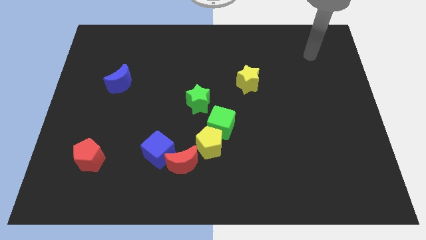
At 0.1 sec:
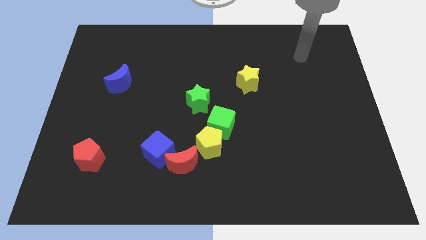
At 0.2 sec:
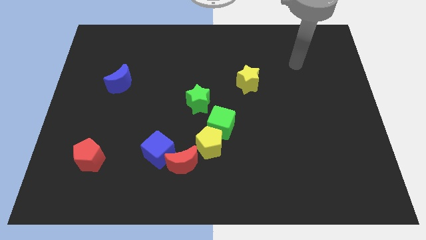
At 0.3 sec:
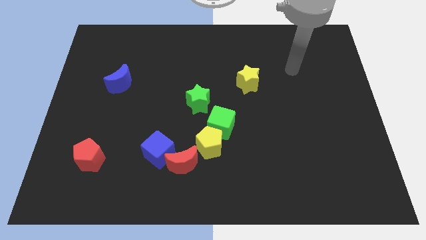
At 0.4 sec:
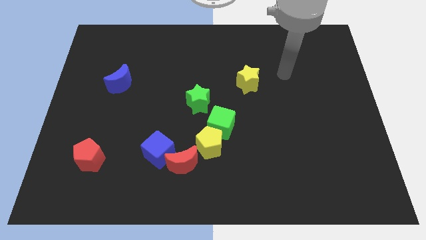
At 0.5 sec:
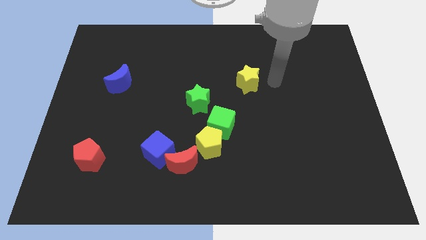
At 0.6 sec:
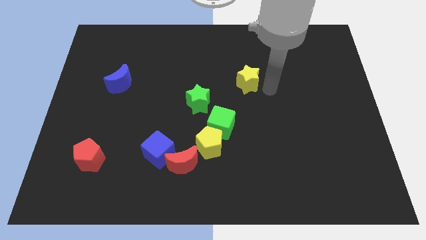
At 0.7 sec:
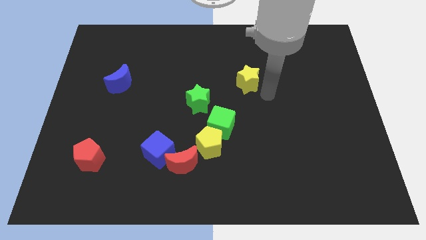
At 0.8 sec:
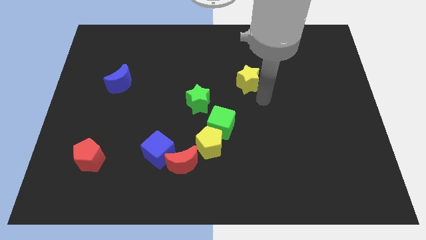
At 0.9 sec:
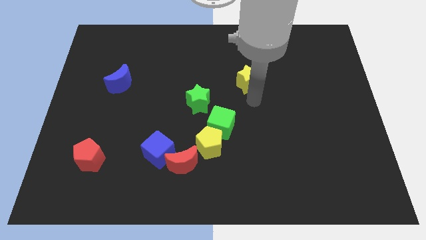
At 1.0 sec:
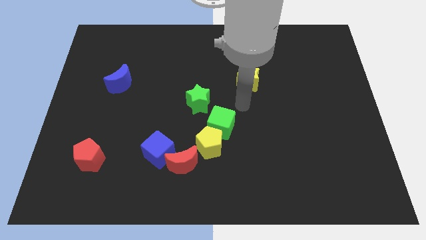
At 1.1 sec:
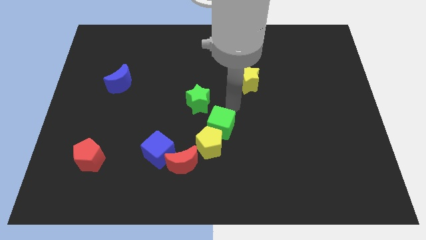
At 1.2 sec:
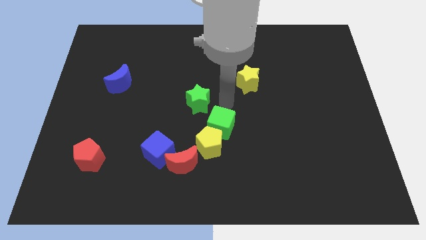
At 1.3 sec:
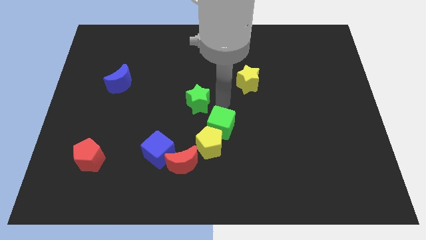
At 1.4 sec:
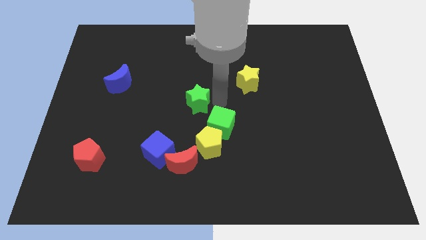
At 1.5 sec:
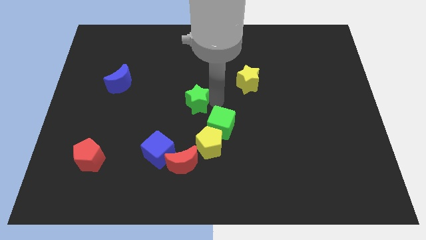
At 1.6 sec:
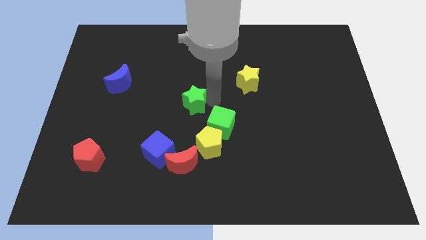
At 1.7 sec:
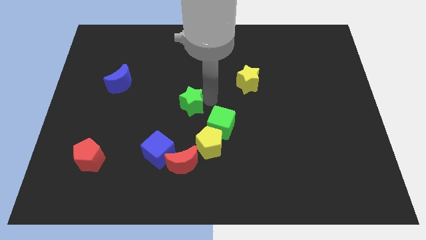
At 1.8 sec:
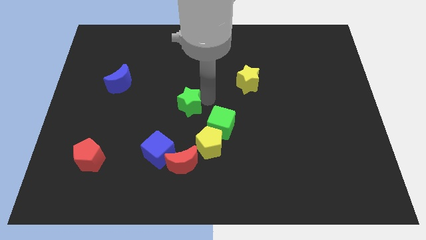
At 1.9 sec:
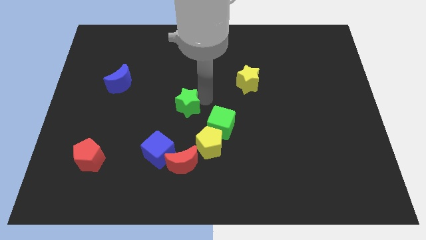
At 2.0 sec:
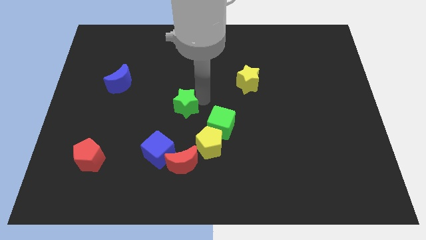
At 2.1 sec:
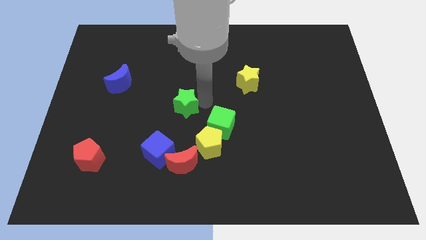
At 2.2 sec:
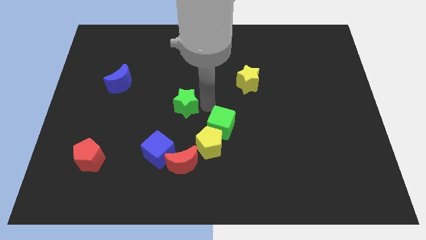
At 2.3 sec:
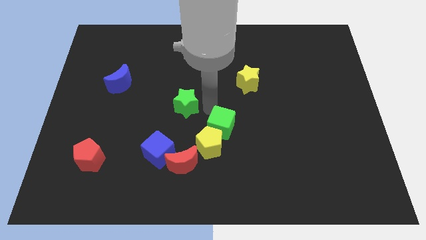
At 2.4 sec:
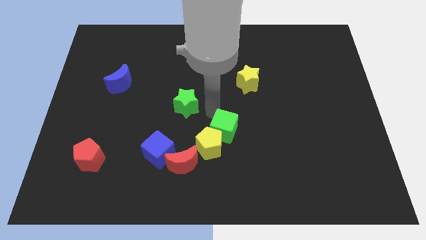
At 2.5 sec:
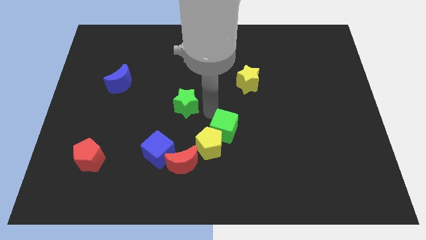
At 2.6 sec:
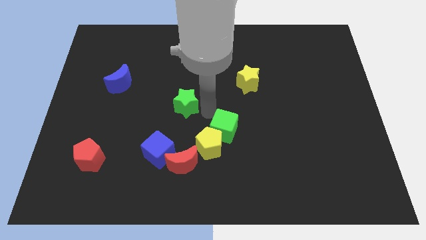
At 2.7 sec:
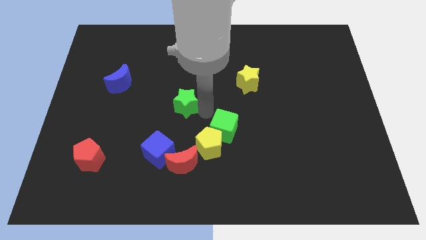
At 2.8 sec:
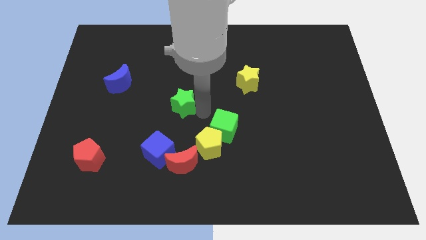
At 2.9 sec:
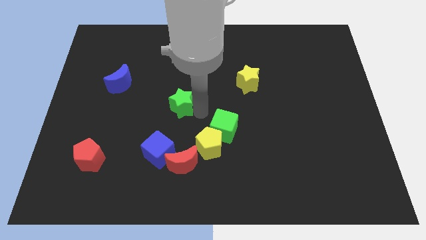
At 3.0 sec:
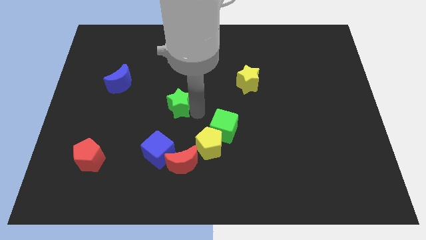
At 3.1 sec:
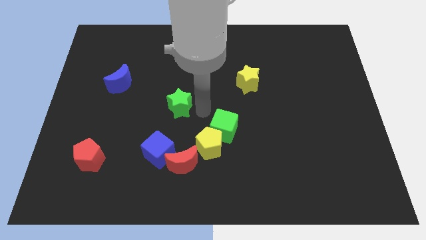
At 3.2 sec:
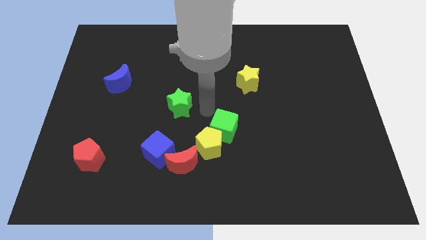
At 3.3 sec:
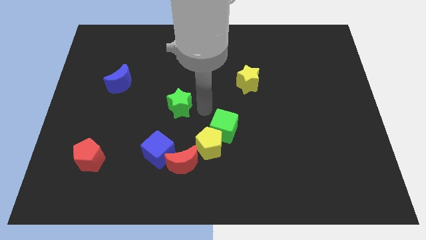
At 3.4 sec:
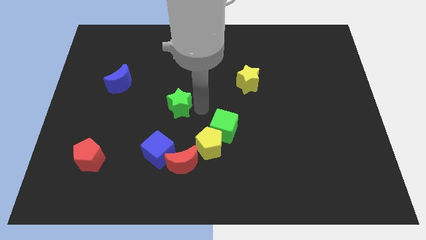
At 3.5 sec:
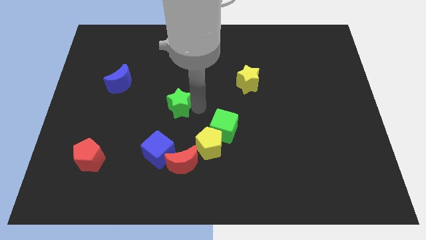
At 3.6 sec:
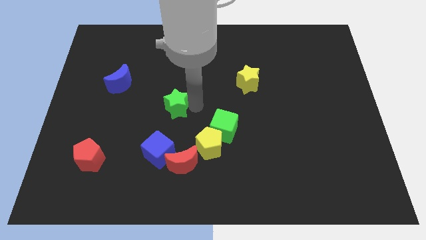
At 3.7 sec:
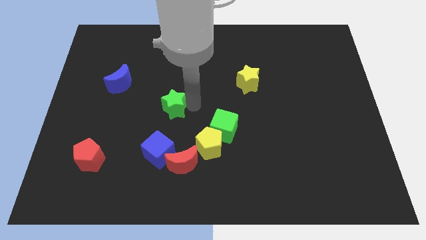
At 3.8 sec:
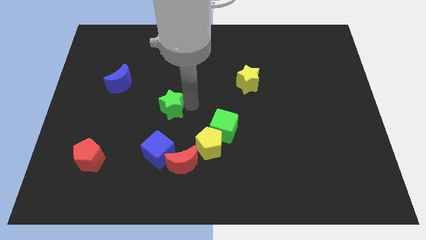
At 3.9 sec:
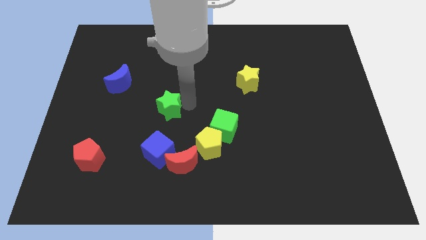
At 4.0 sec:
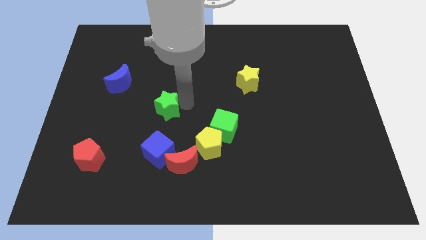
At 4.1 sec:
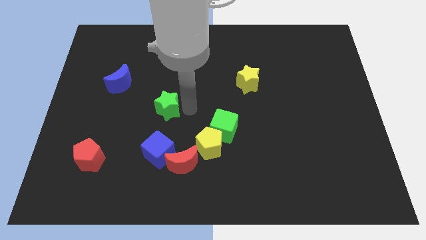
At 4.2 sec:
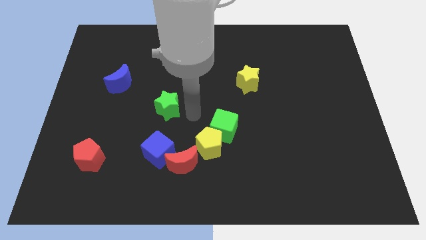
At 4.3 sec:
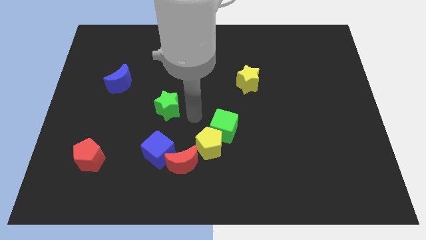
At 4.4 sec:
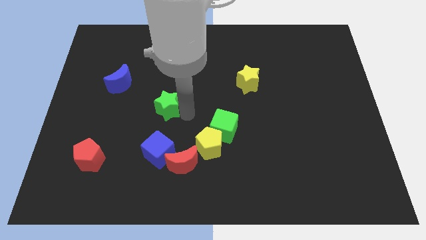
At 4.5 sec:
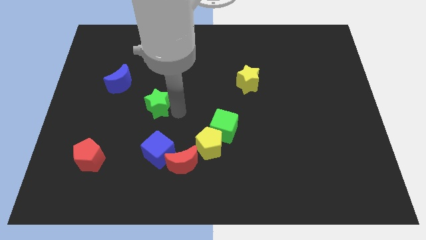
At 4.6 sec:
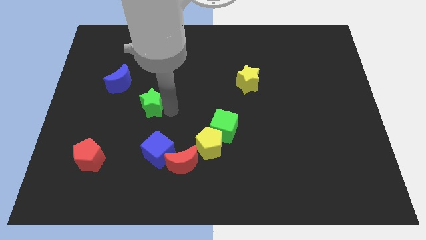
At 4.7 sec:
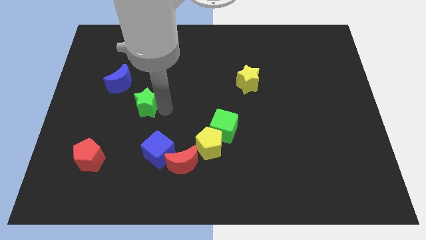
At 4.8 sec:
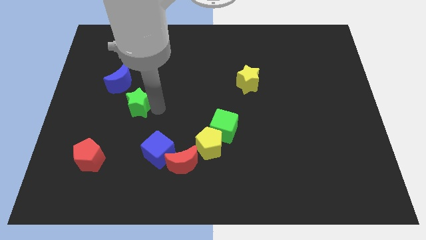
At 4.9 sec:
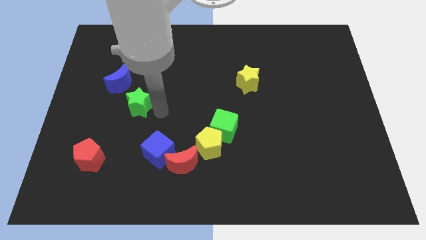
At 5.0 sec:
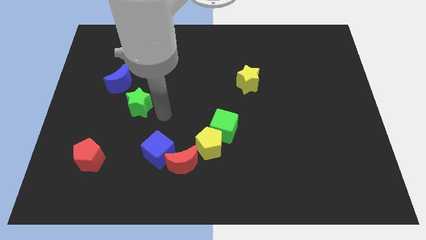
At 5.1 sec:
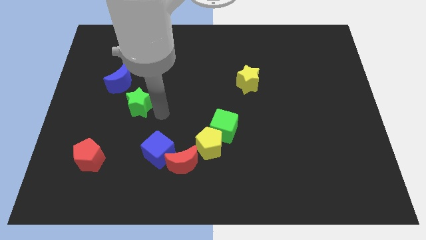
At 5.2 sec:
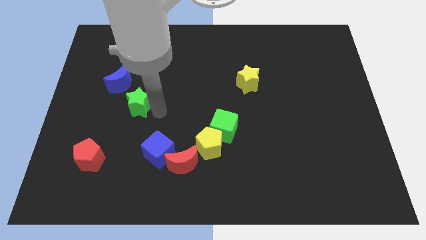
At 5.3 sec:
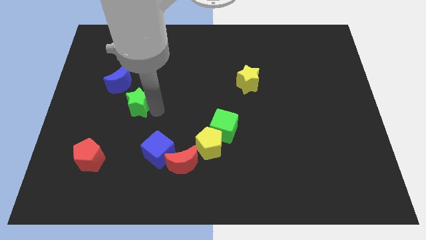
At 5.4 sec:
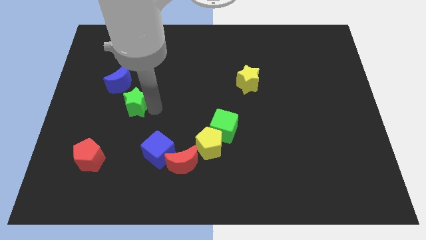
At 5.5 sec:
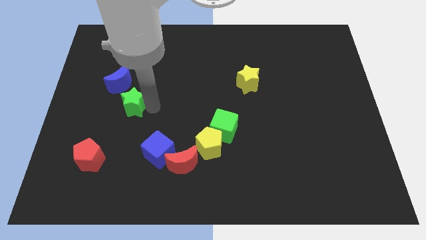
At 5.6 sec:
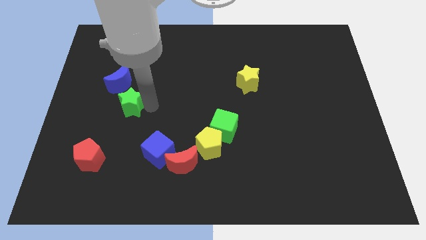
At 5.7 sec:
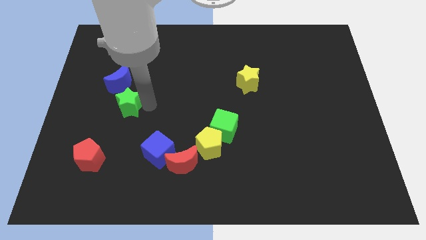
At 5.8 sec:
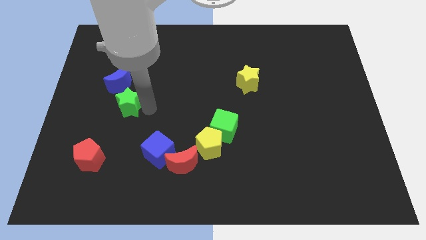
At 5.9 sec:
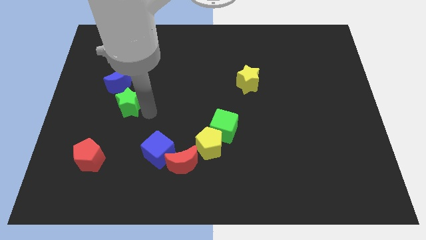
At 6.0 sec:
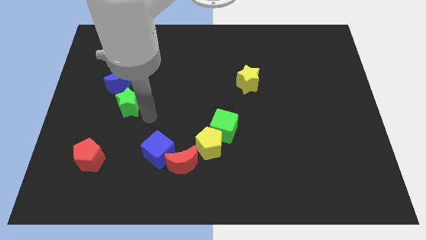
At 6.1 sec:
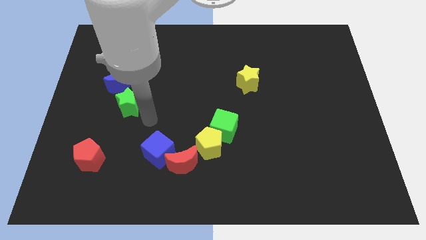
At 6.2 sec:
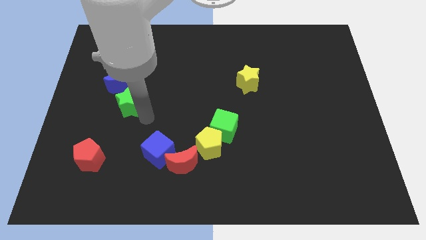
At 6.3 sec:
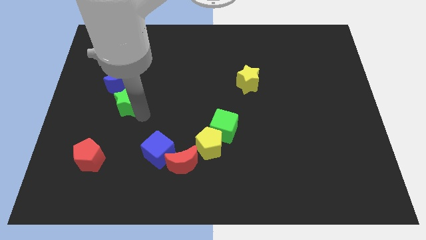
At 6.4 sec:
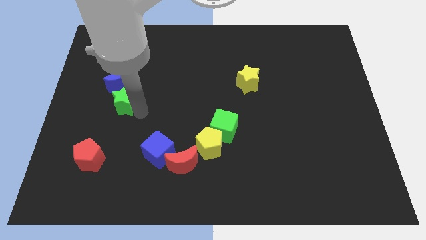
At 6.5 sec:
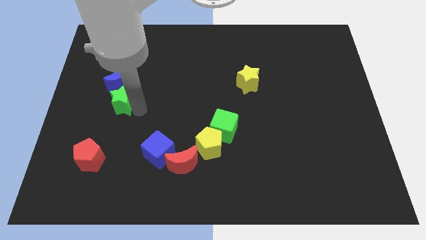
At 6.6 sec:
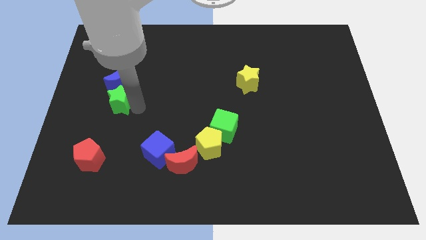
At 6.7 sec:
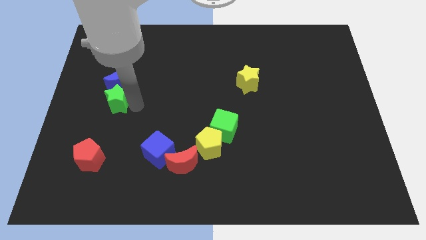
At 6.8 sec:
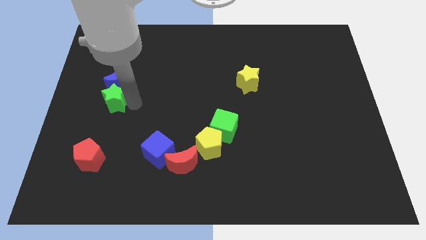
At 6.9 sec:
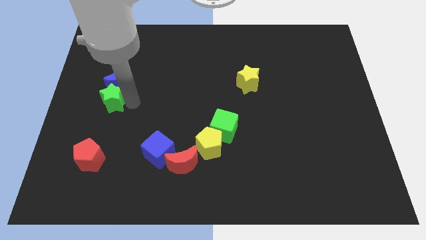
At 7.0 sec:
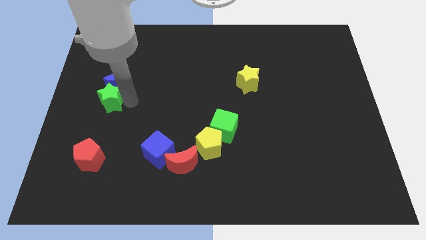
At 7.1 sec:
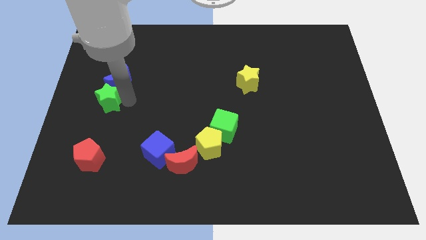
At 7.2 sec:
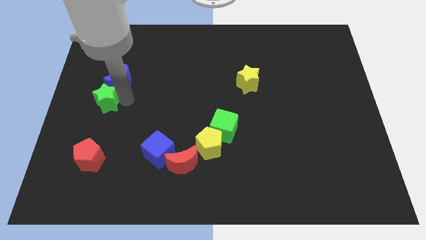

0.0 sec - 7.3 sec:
push the green star to the left side
